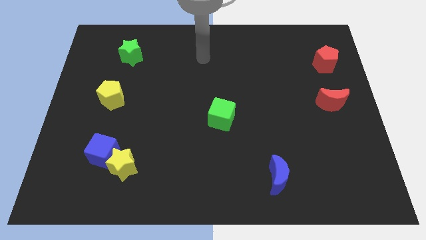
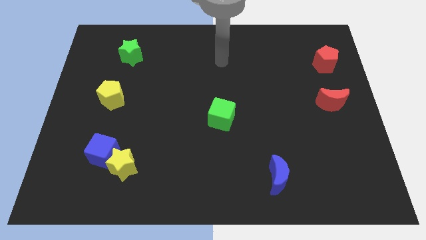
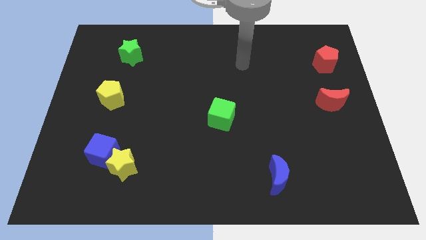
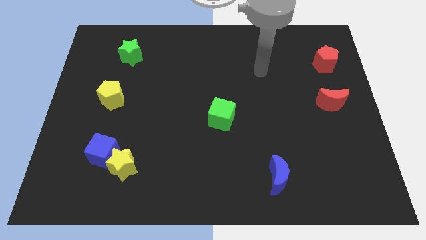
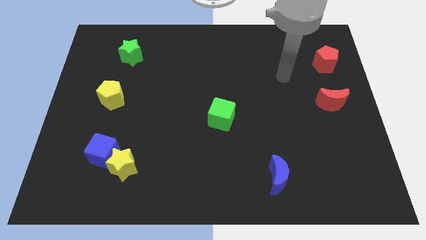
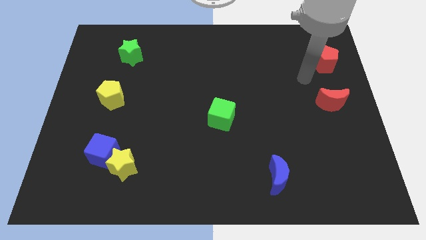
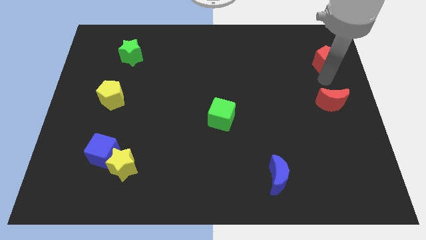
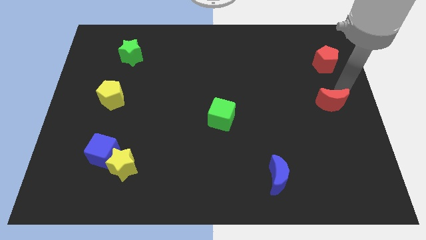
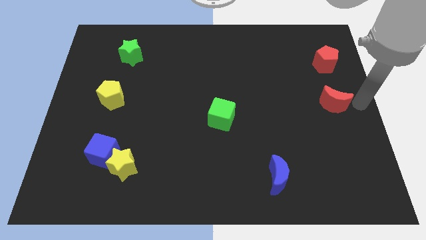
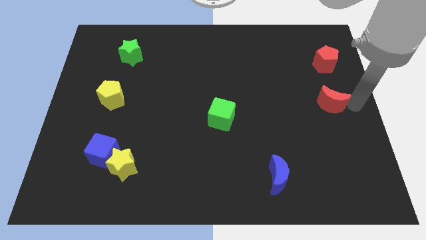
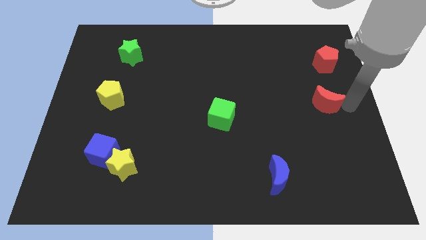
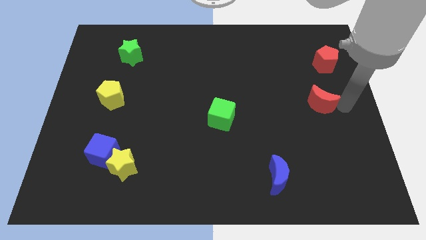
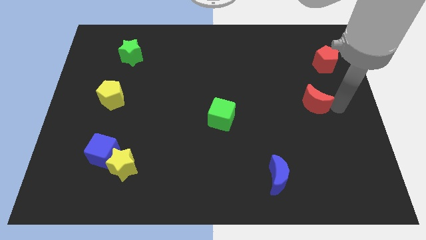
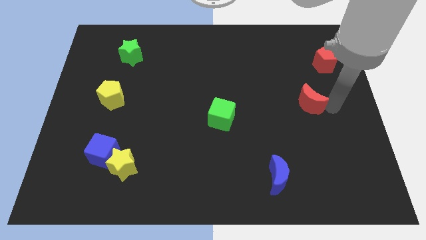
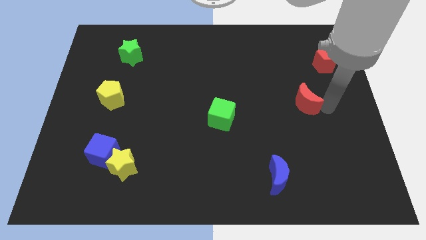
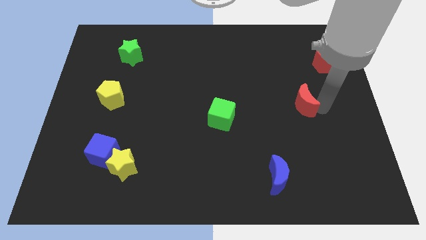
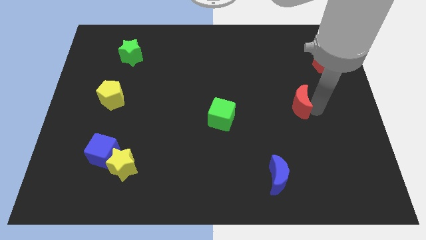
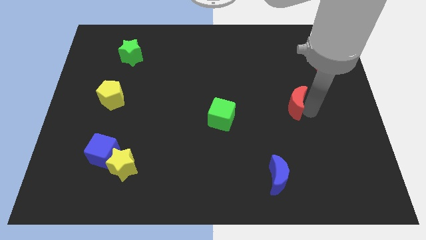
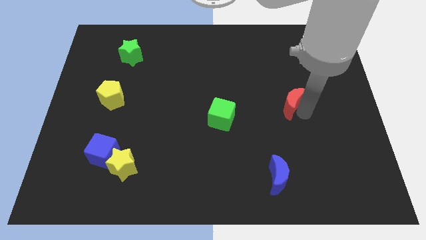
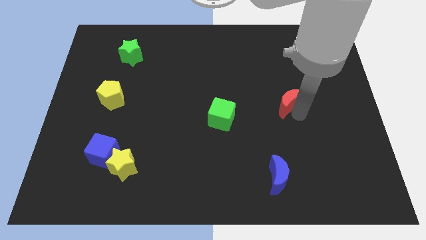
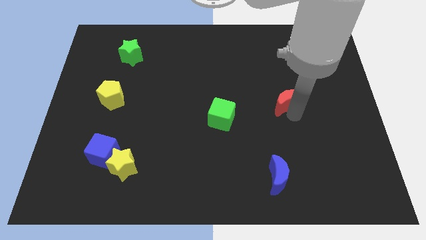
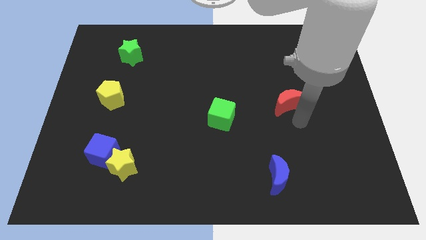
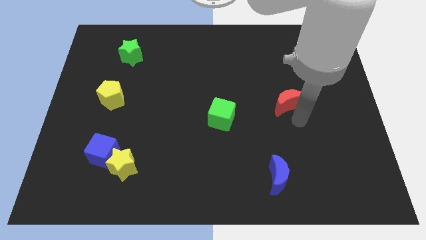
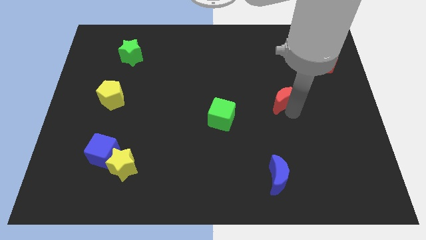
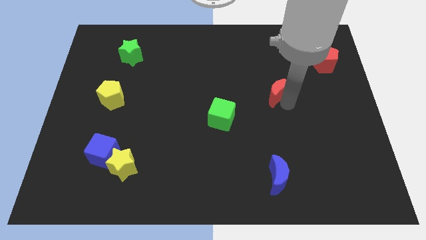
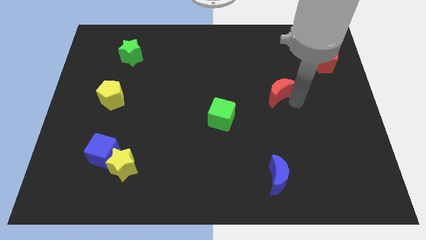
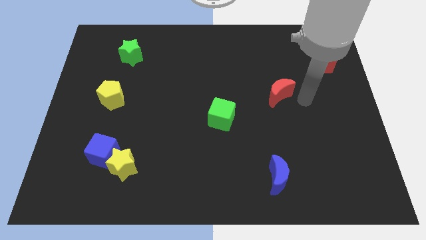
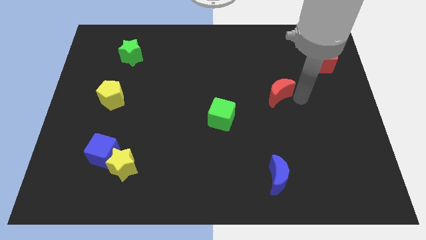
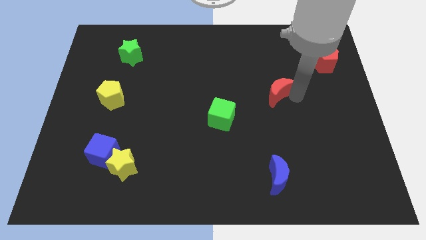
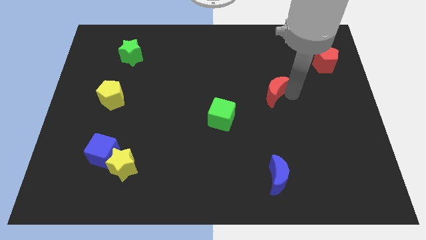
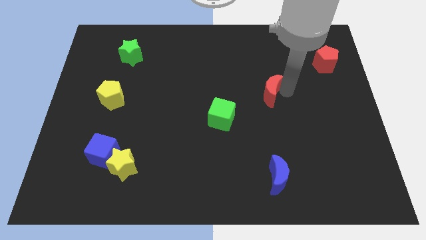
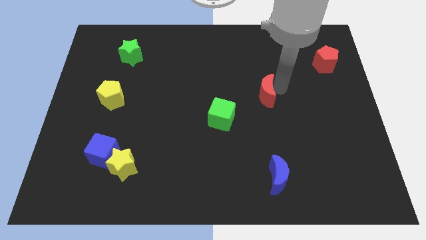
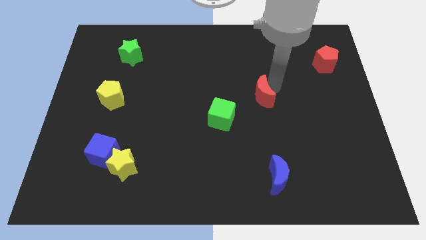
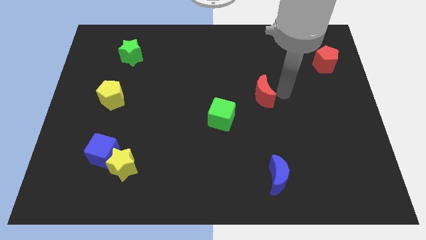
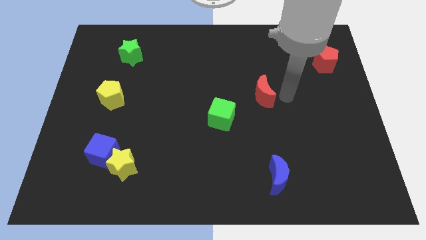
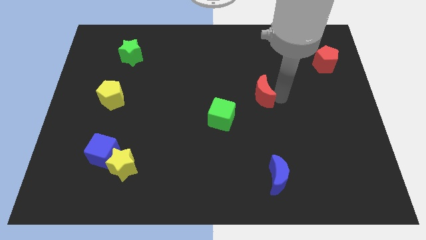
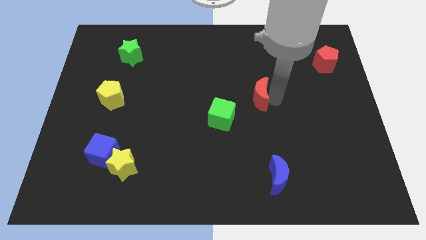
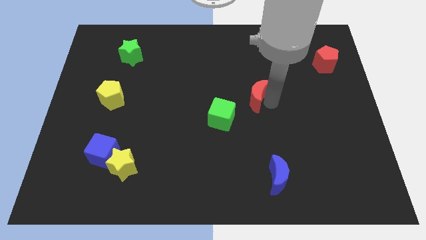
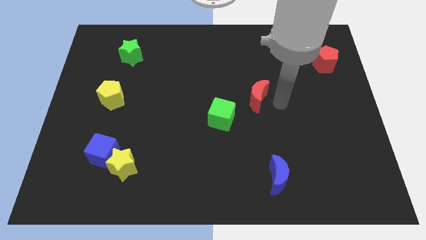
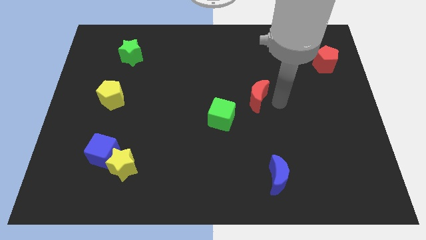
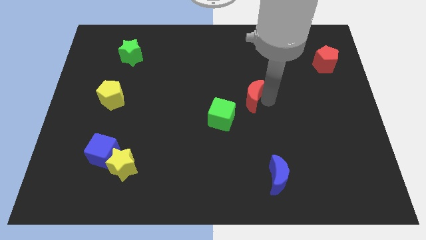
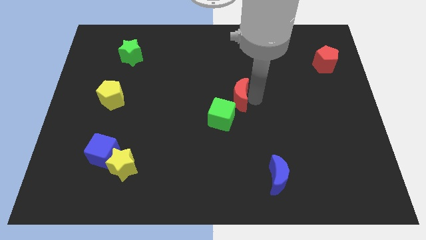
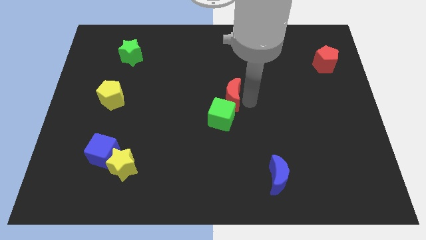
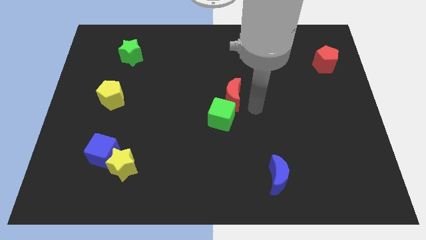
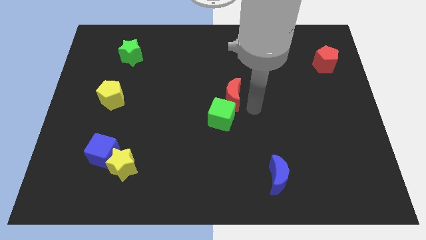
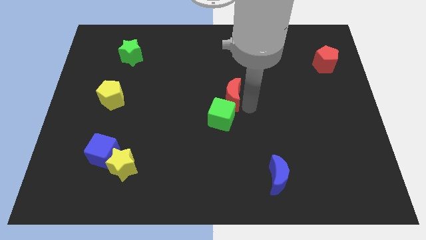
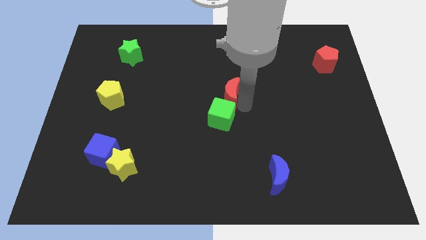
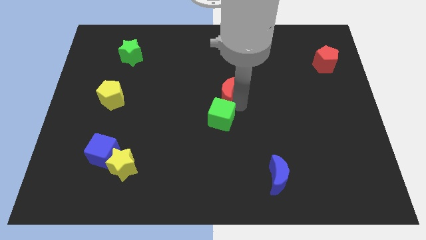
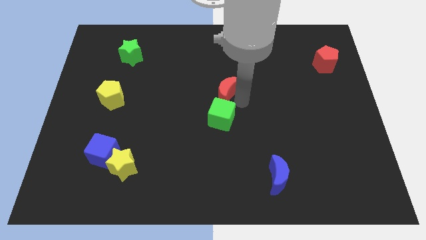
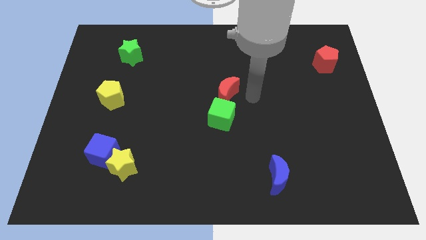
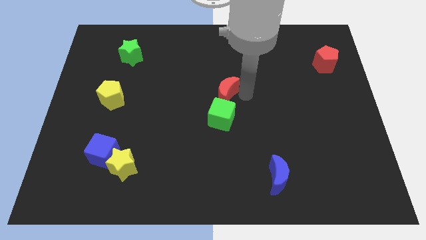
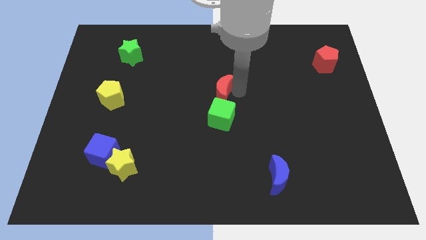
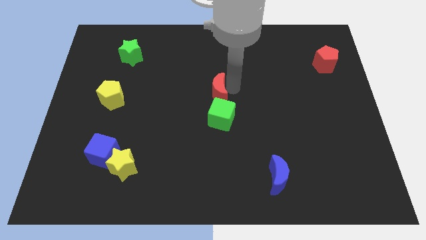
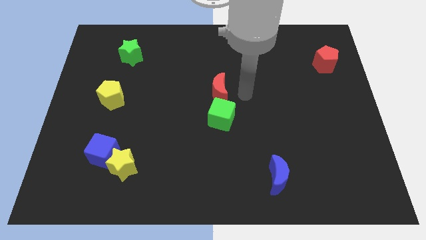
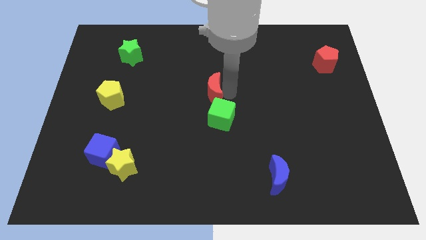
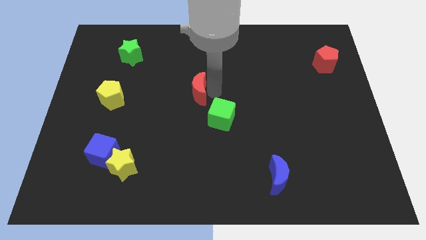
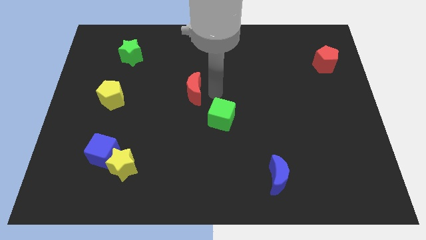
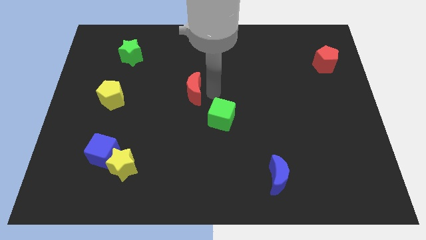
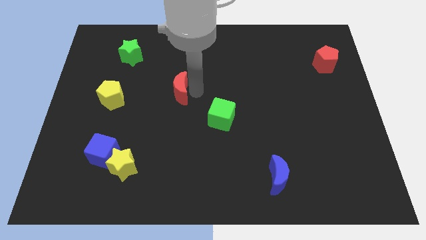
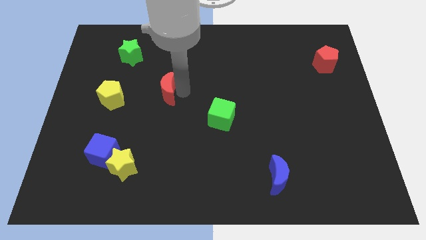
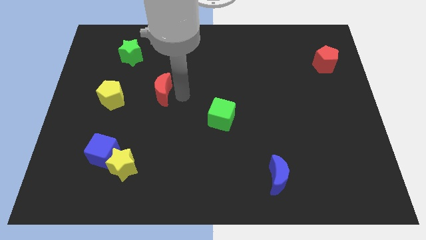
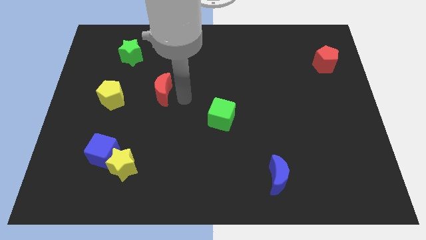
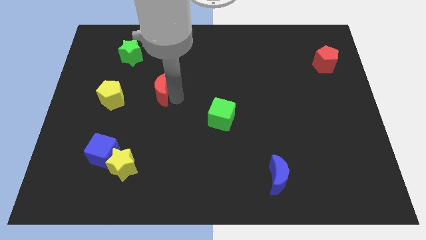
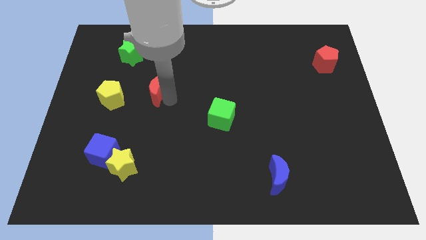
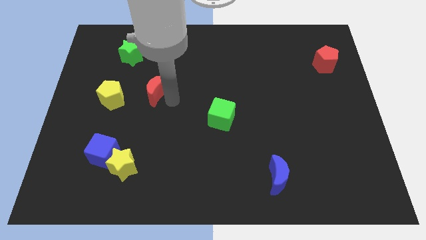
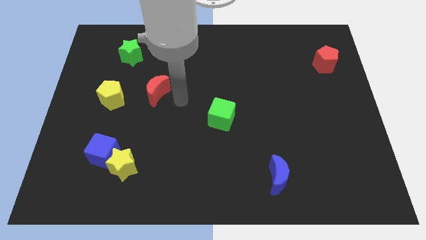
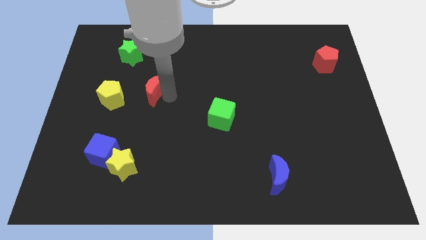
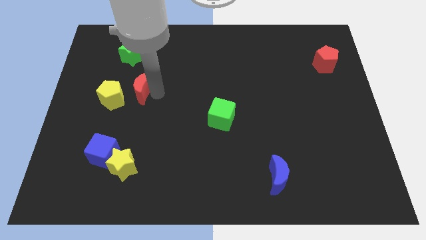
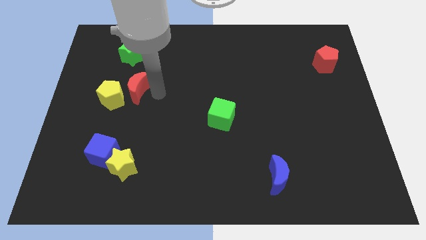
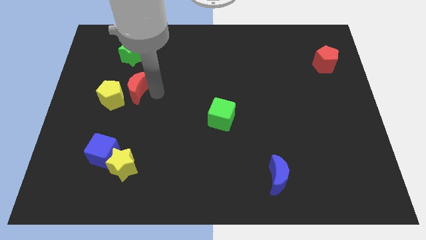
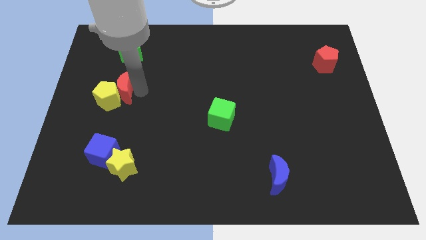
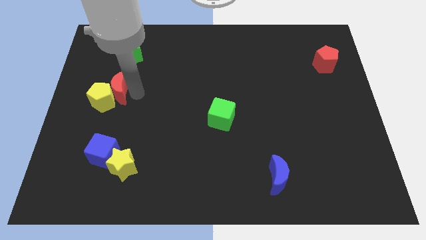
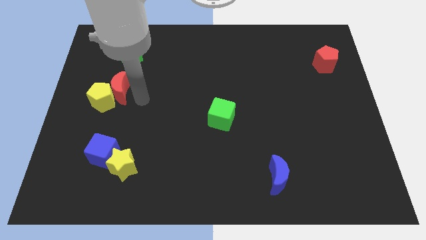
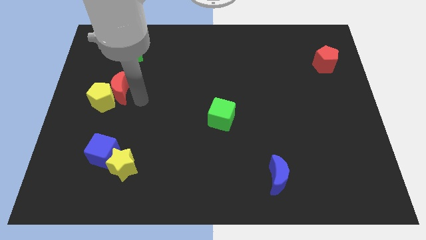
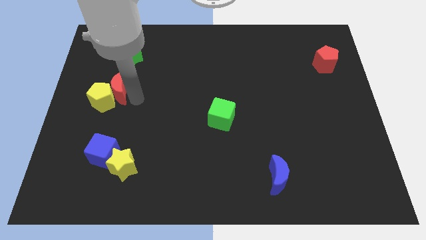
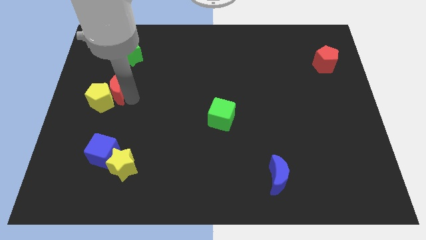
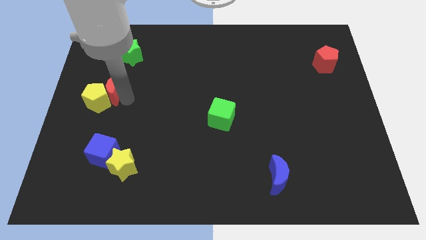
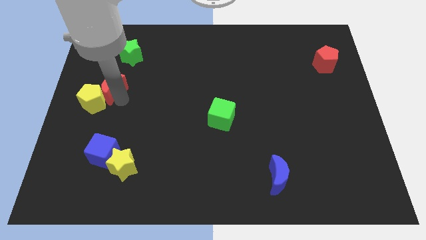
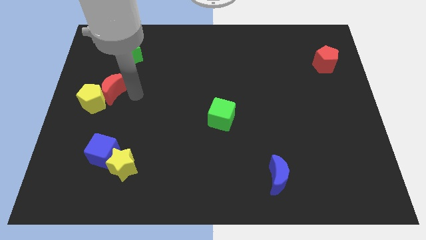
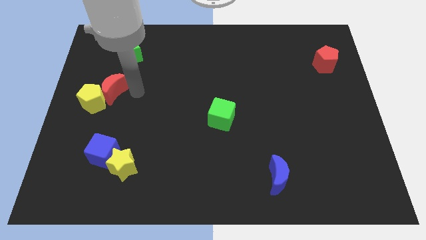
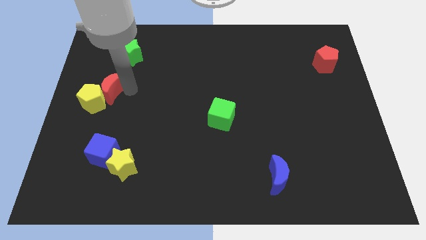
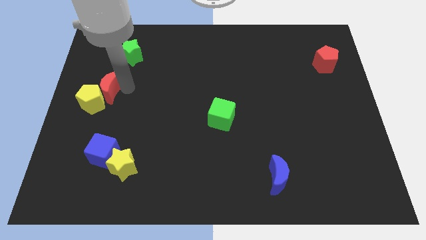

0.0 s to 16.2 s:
push the red moon to the left side of the board
